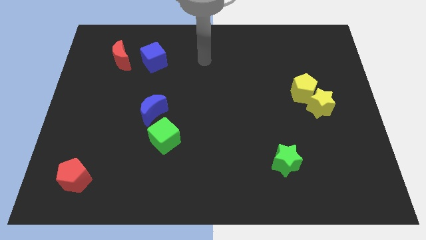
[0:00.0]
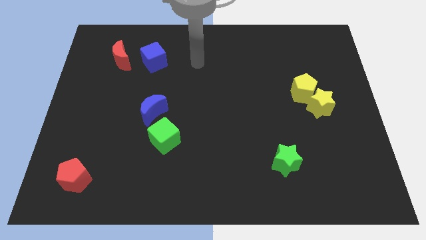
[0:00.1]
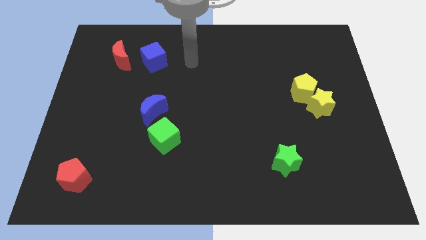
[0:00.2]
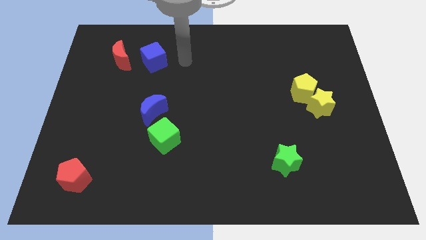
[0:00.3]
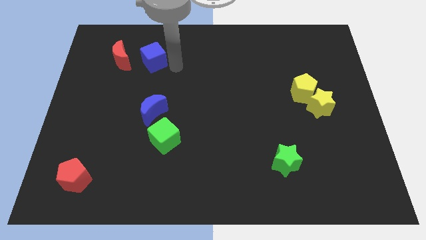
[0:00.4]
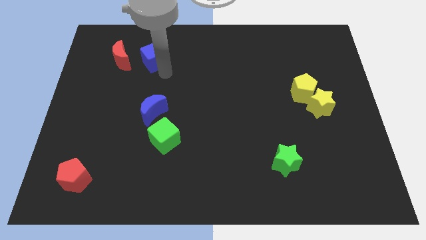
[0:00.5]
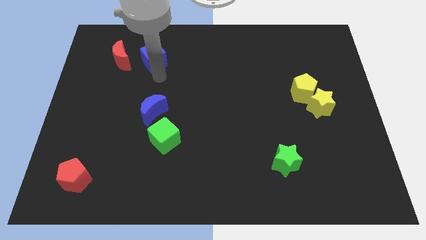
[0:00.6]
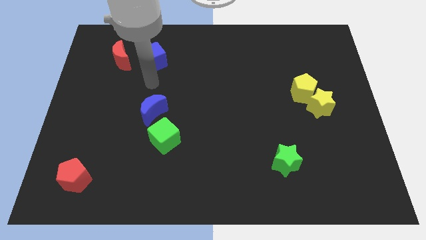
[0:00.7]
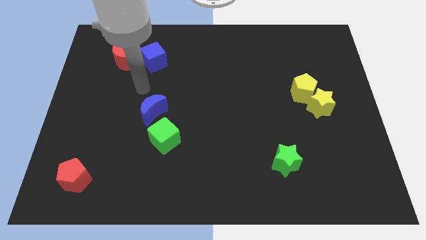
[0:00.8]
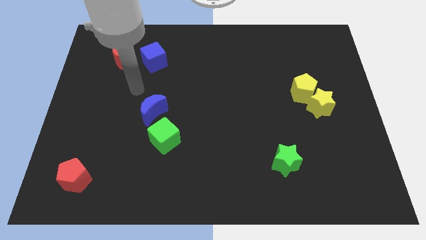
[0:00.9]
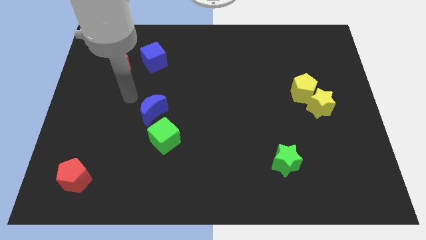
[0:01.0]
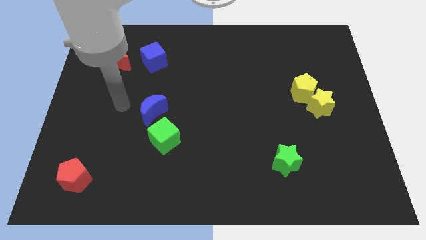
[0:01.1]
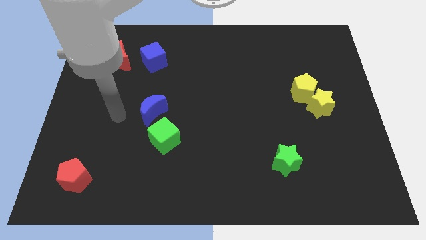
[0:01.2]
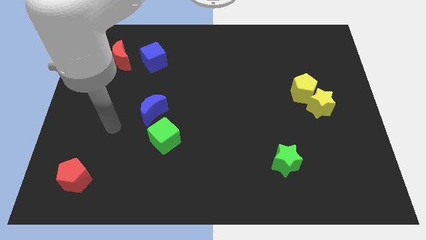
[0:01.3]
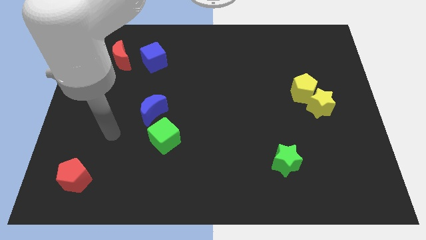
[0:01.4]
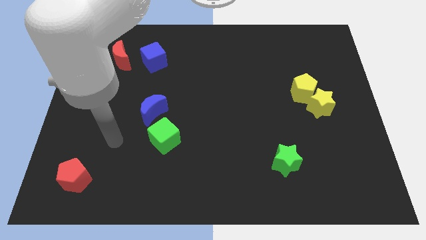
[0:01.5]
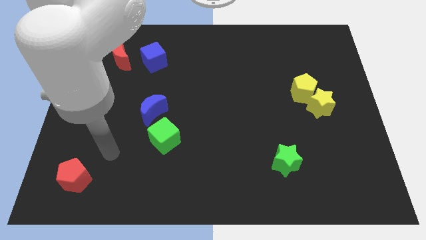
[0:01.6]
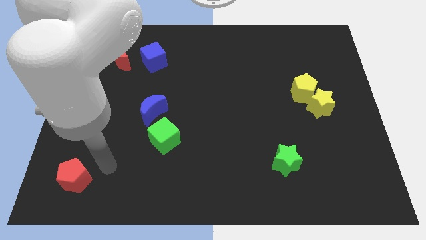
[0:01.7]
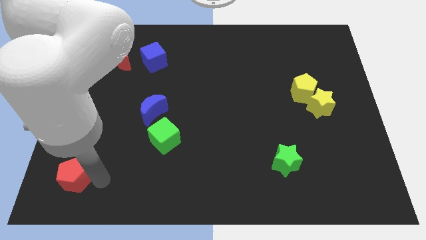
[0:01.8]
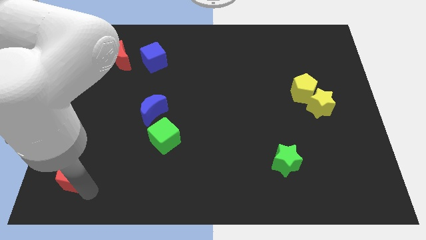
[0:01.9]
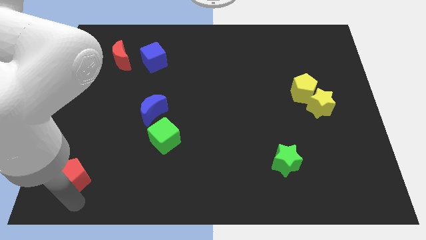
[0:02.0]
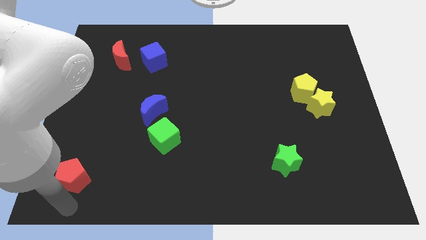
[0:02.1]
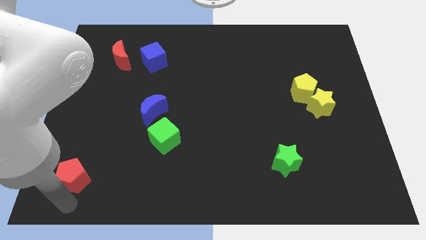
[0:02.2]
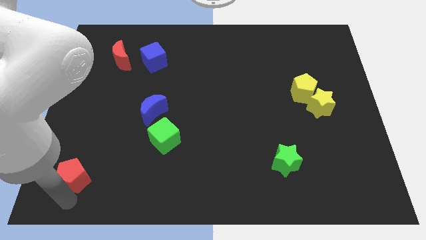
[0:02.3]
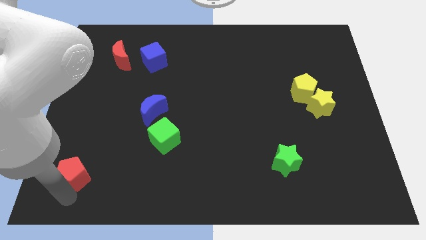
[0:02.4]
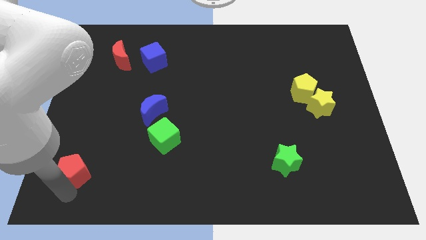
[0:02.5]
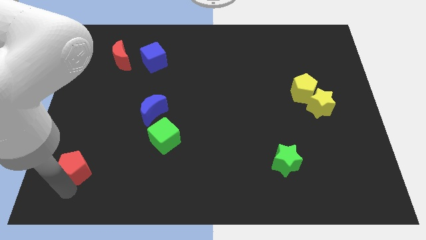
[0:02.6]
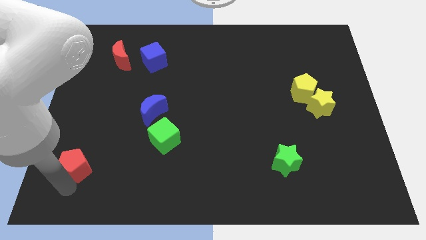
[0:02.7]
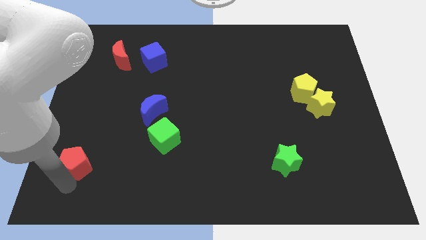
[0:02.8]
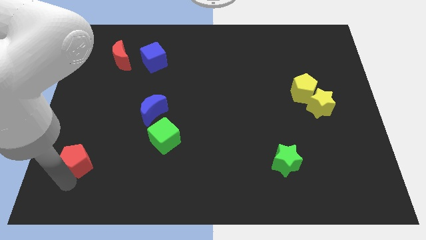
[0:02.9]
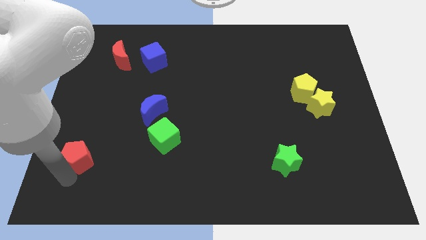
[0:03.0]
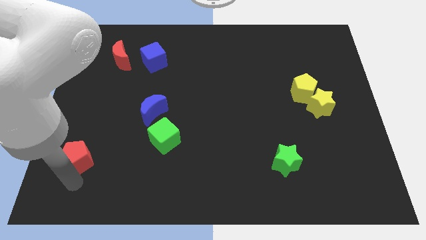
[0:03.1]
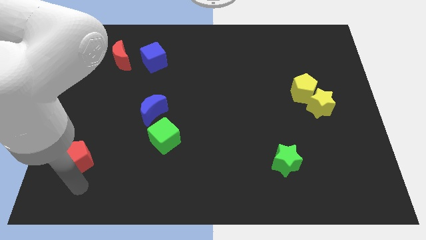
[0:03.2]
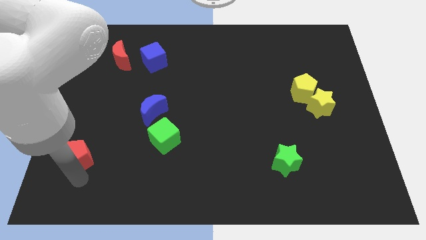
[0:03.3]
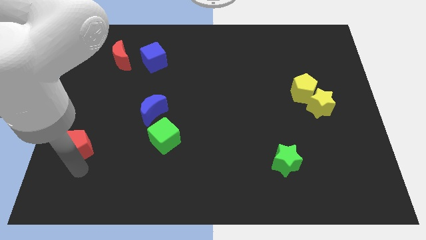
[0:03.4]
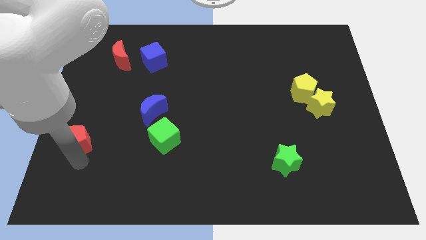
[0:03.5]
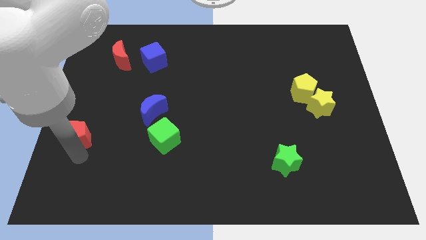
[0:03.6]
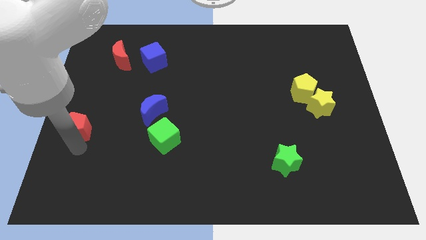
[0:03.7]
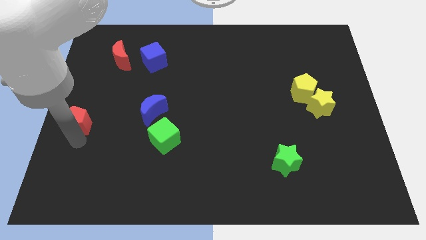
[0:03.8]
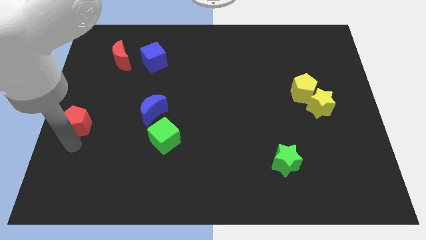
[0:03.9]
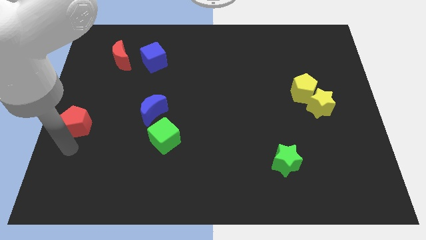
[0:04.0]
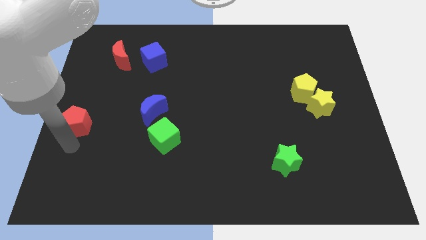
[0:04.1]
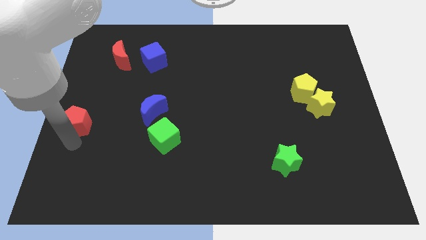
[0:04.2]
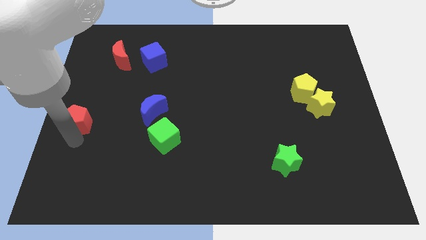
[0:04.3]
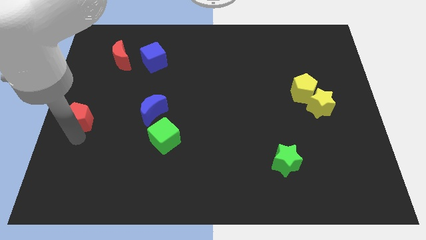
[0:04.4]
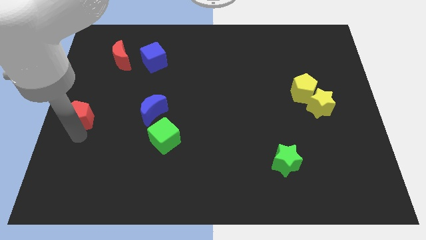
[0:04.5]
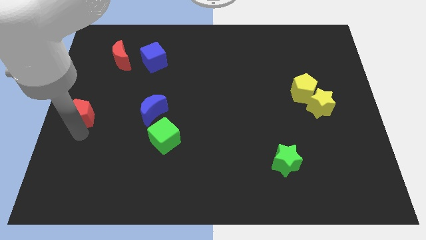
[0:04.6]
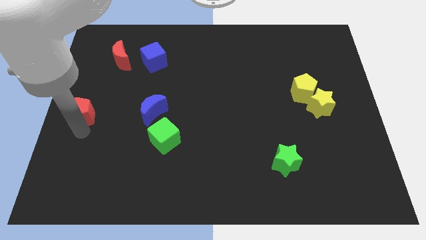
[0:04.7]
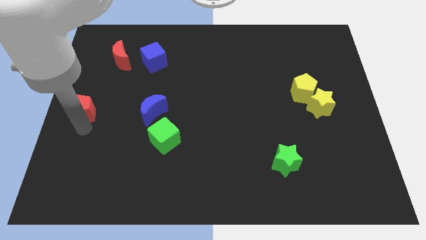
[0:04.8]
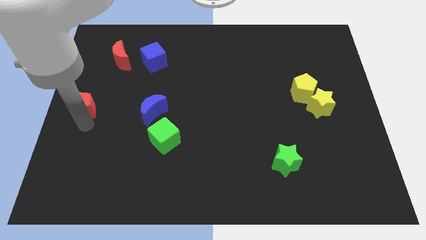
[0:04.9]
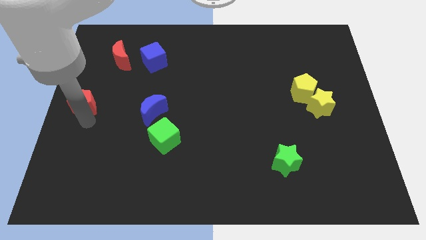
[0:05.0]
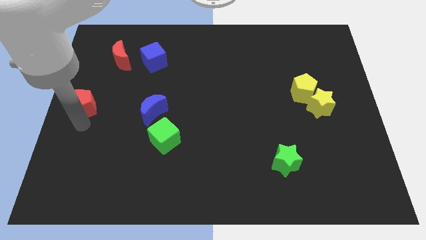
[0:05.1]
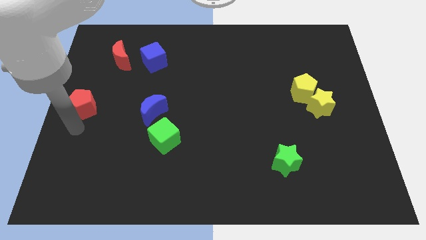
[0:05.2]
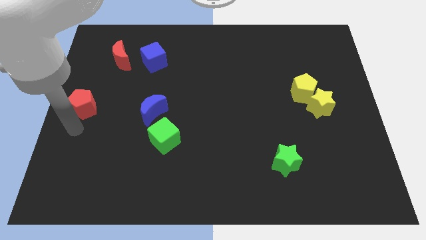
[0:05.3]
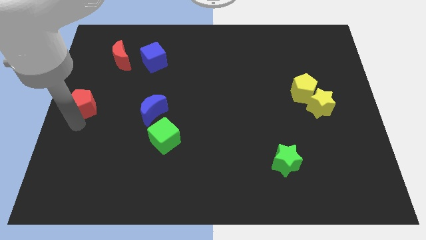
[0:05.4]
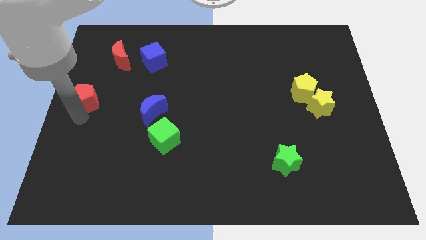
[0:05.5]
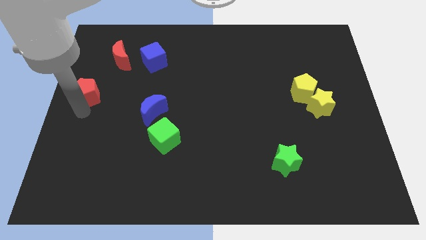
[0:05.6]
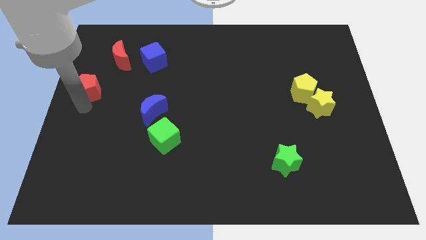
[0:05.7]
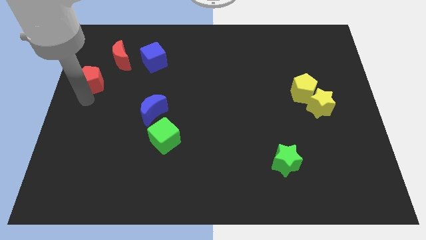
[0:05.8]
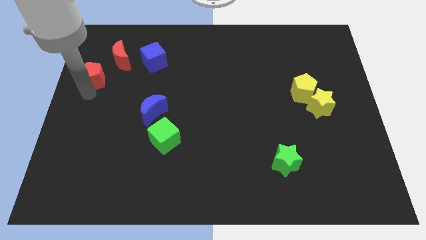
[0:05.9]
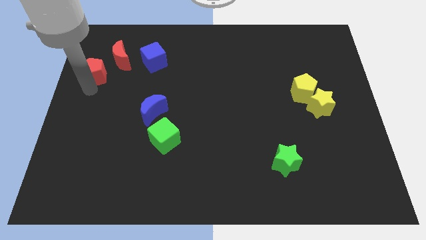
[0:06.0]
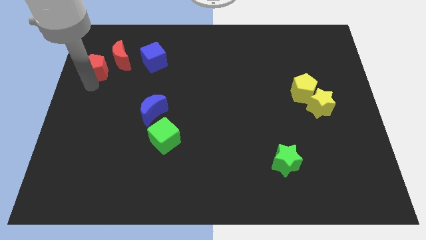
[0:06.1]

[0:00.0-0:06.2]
move the red pentagon left of the blue cube
